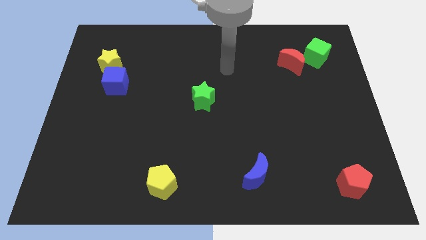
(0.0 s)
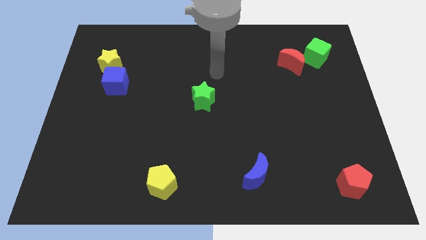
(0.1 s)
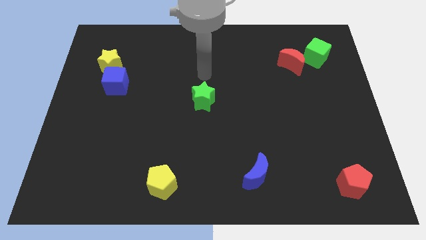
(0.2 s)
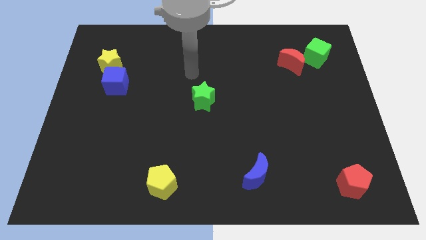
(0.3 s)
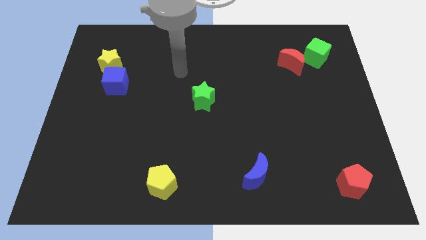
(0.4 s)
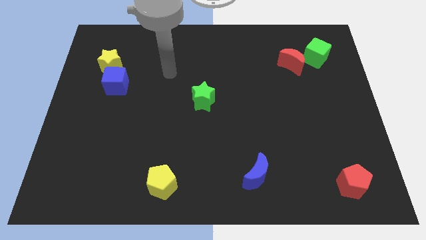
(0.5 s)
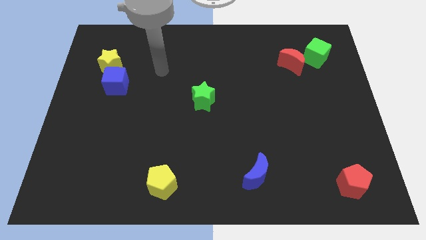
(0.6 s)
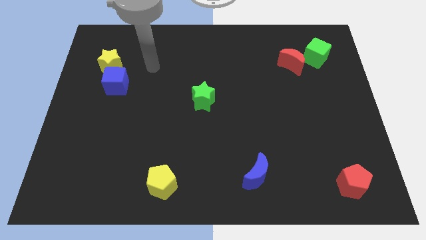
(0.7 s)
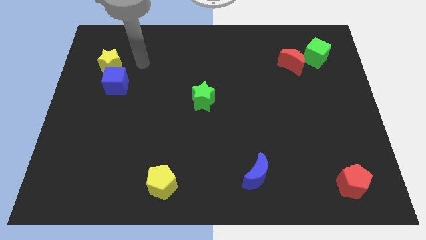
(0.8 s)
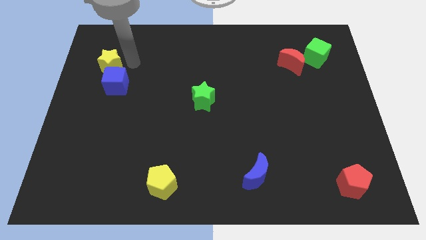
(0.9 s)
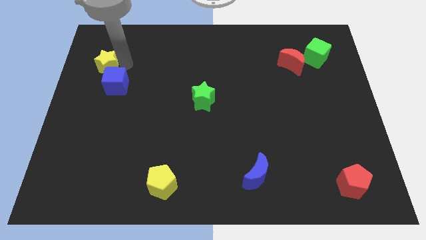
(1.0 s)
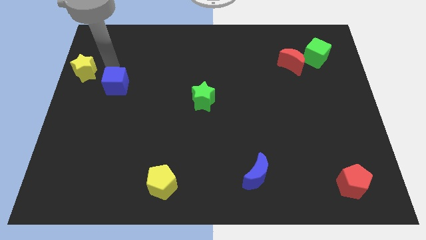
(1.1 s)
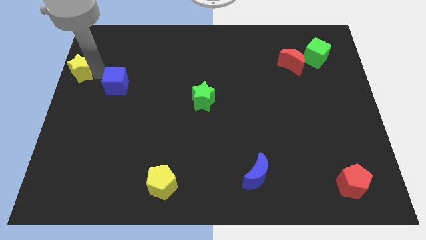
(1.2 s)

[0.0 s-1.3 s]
move the blue cube away from the yellow star

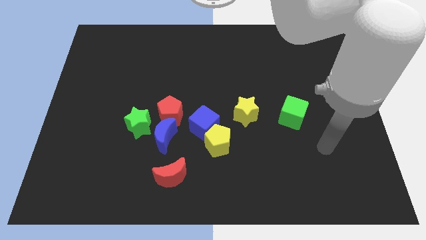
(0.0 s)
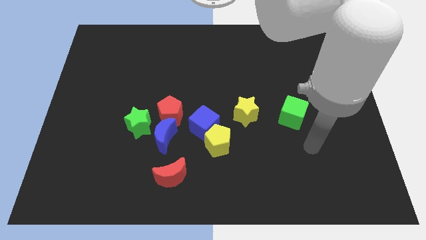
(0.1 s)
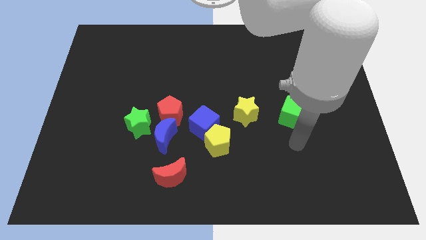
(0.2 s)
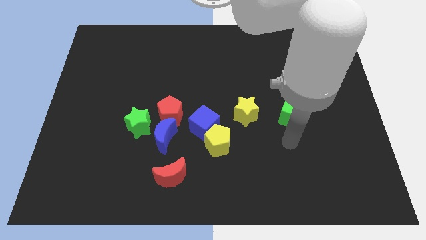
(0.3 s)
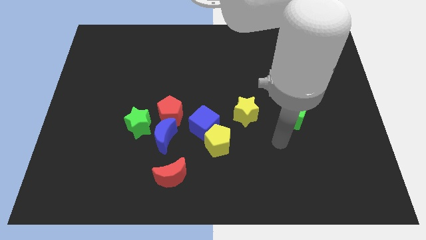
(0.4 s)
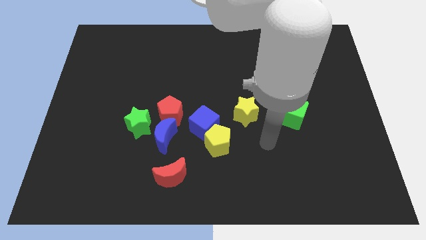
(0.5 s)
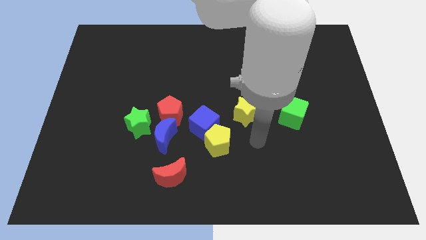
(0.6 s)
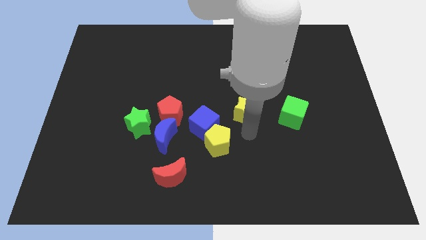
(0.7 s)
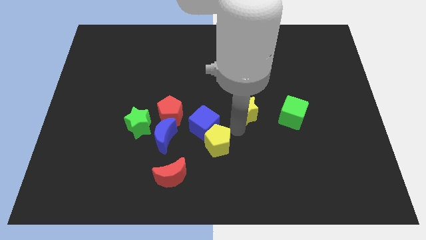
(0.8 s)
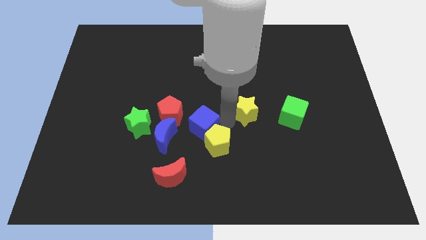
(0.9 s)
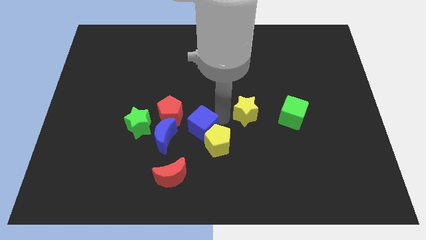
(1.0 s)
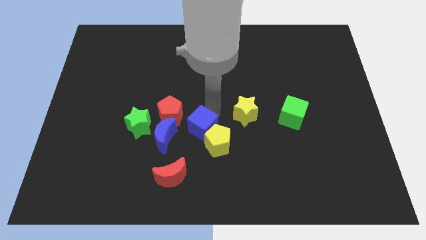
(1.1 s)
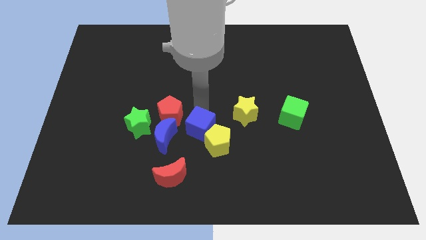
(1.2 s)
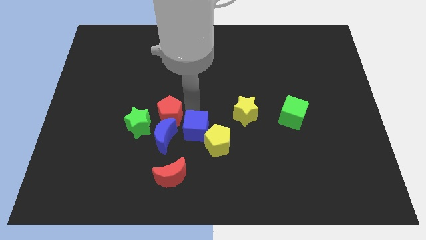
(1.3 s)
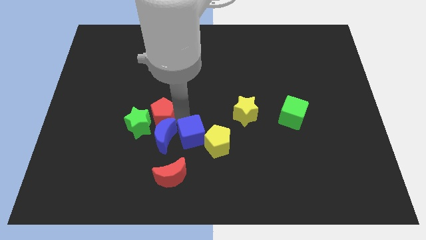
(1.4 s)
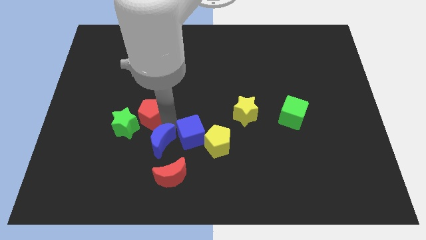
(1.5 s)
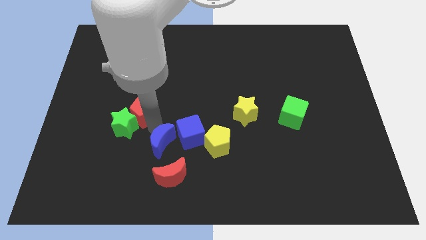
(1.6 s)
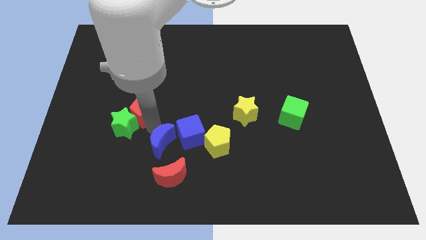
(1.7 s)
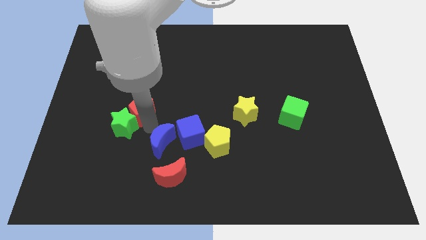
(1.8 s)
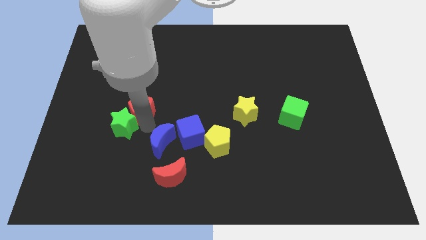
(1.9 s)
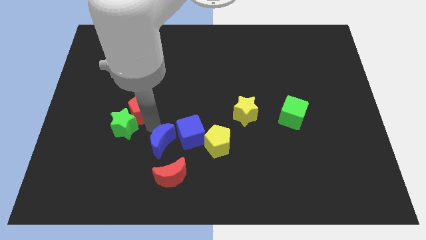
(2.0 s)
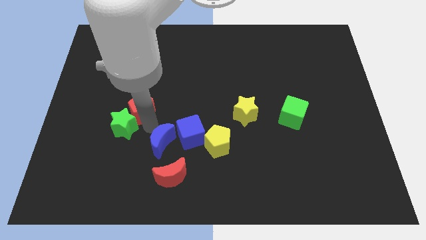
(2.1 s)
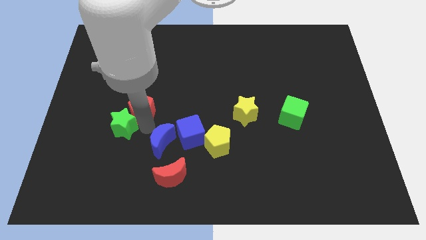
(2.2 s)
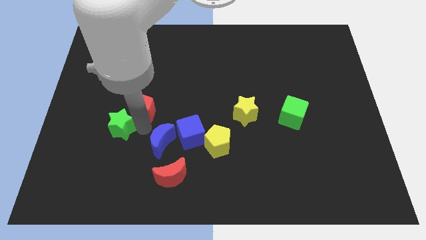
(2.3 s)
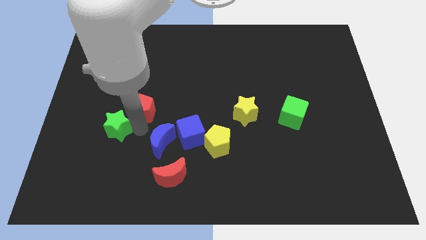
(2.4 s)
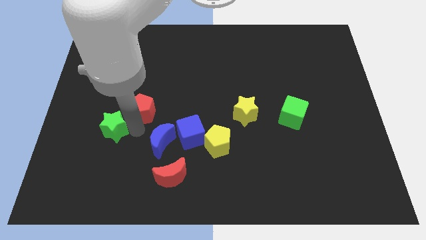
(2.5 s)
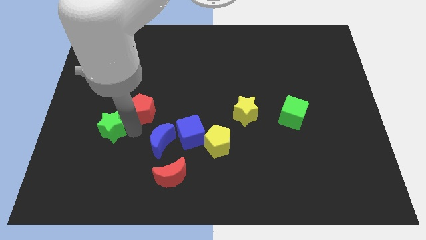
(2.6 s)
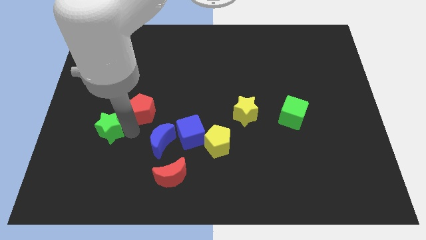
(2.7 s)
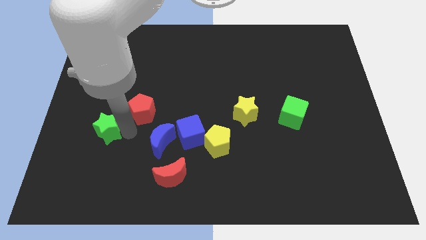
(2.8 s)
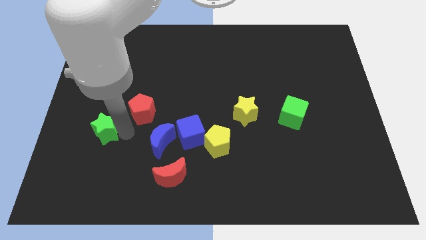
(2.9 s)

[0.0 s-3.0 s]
move the green star away from the blue moon and red pentagon

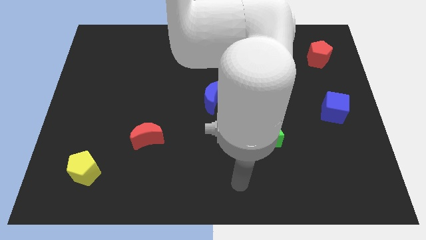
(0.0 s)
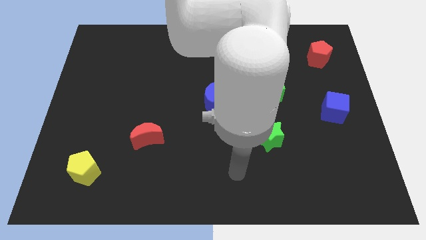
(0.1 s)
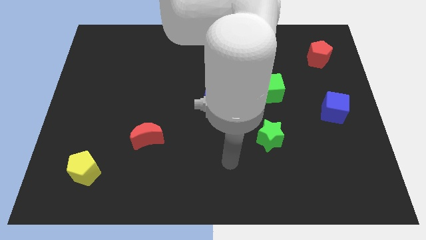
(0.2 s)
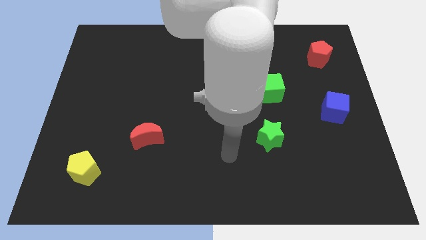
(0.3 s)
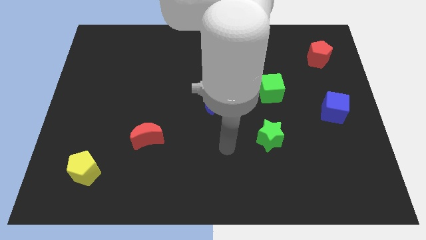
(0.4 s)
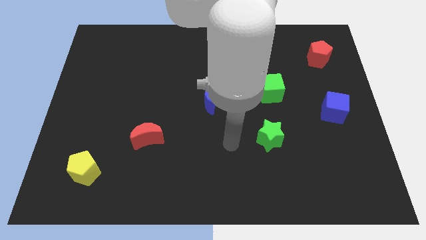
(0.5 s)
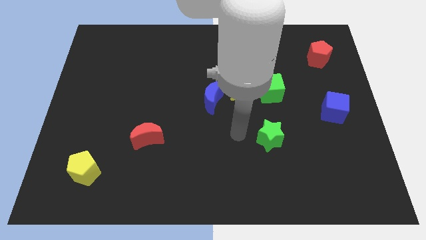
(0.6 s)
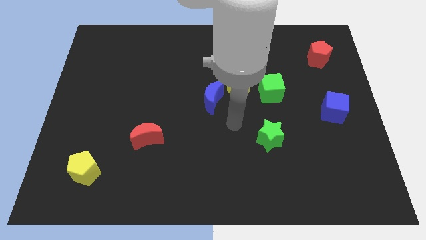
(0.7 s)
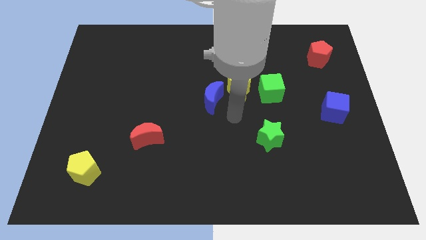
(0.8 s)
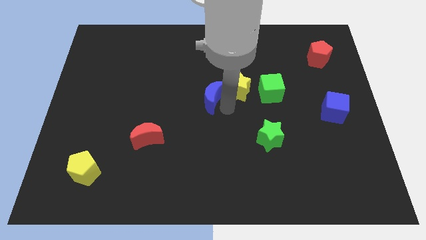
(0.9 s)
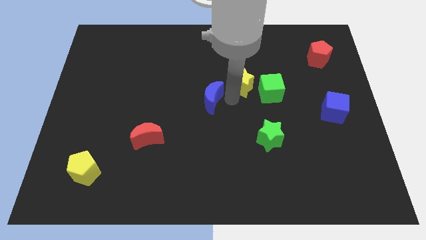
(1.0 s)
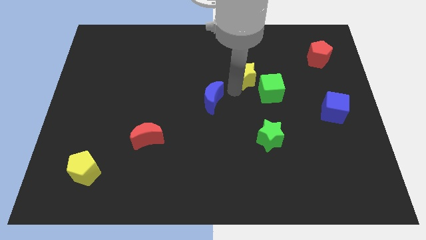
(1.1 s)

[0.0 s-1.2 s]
move the blue moon away from the yellow star

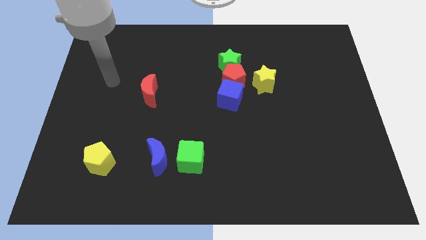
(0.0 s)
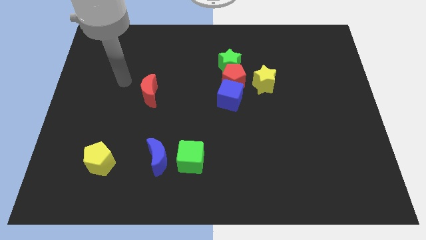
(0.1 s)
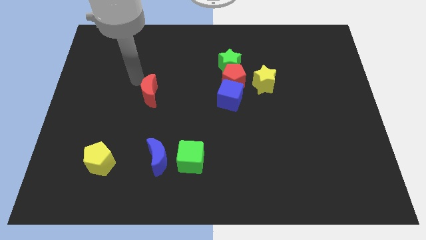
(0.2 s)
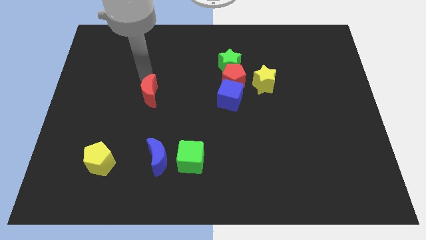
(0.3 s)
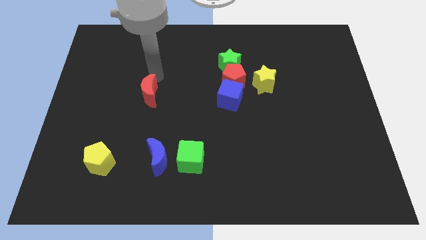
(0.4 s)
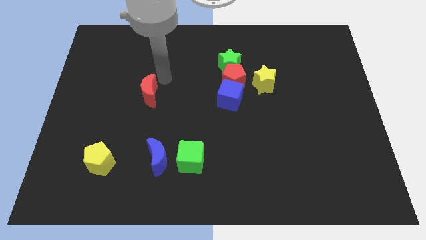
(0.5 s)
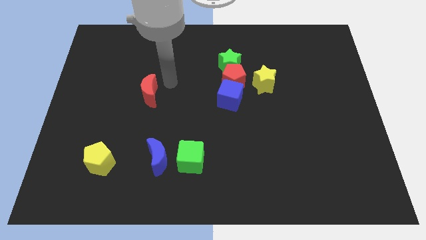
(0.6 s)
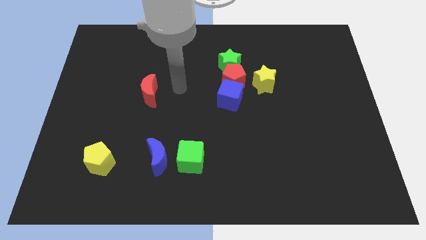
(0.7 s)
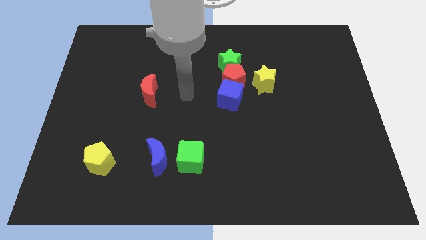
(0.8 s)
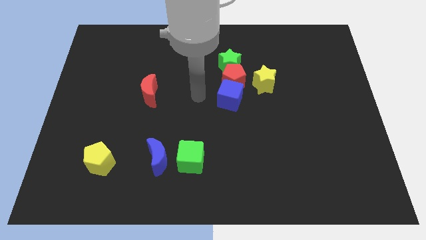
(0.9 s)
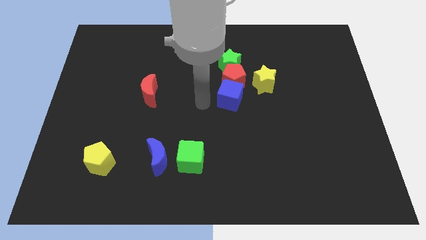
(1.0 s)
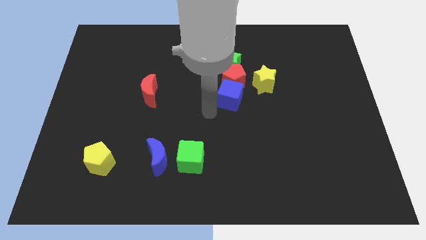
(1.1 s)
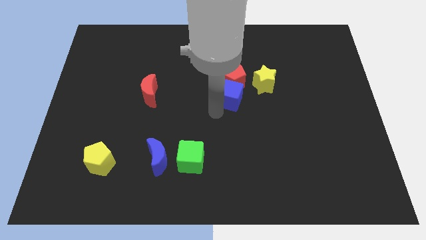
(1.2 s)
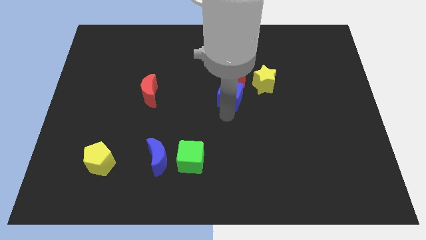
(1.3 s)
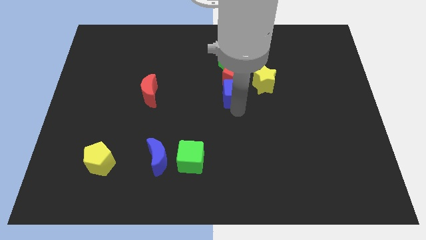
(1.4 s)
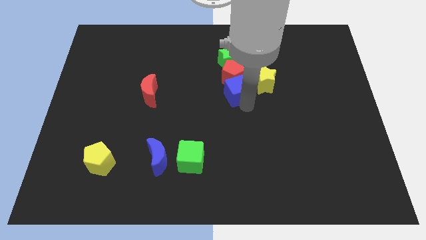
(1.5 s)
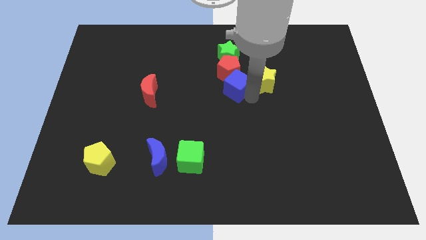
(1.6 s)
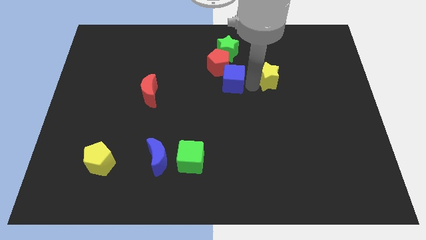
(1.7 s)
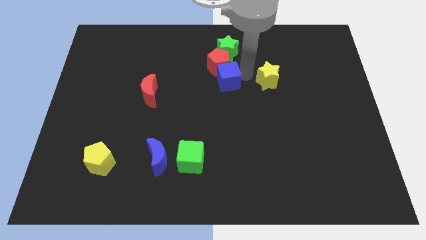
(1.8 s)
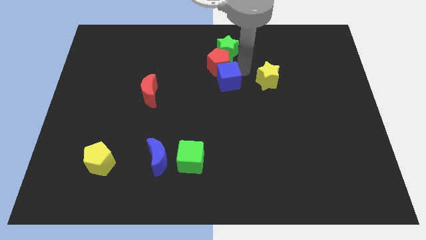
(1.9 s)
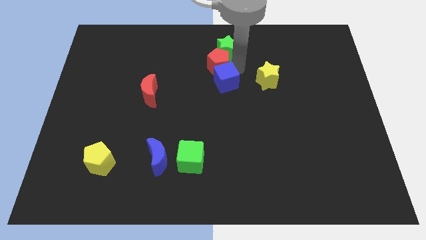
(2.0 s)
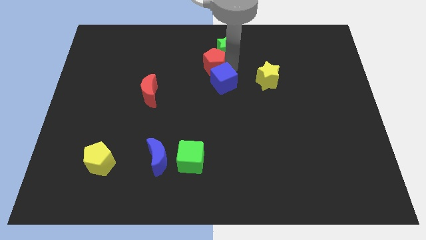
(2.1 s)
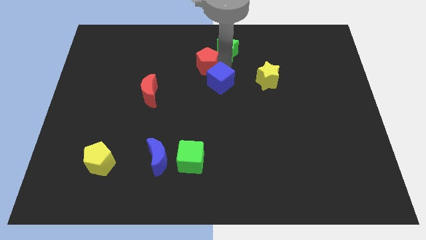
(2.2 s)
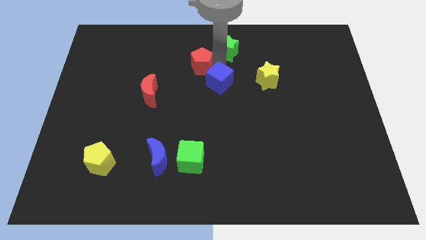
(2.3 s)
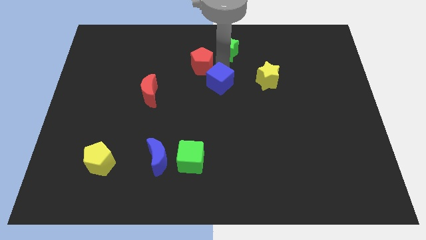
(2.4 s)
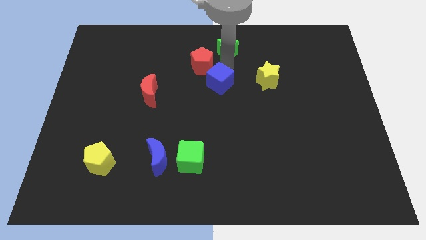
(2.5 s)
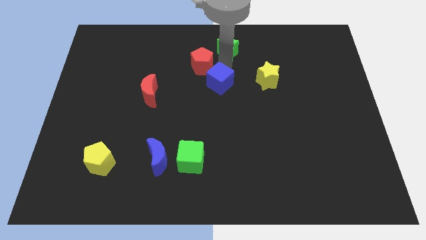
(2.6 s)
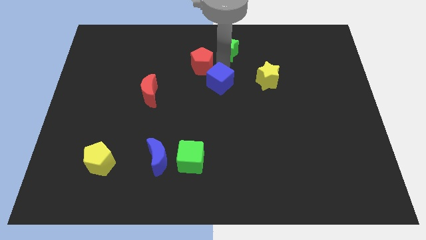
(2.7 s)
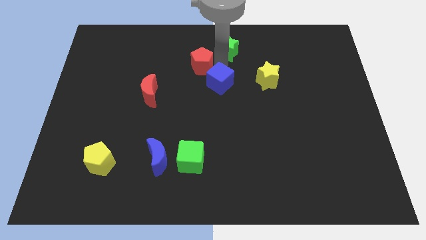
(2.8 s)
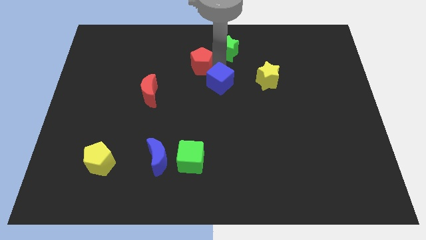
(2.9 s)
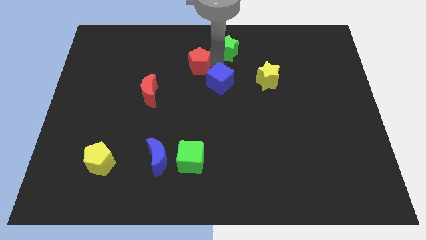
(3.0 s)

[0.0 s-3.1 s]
separate the red pentagon from the green star, blue cube, and yellow star

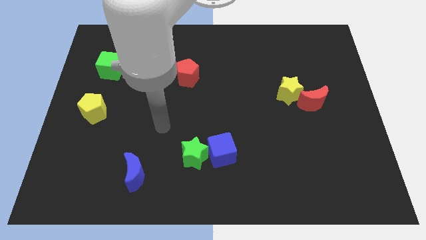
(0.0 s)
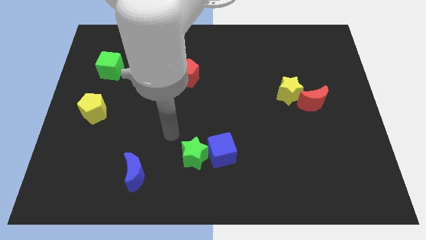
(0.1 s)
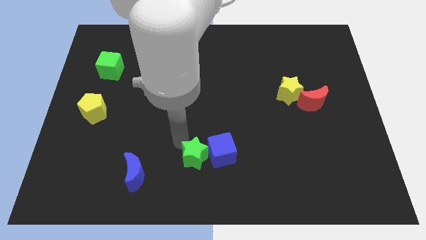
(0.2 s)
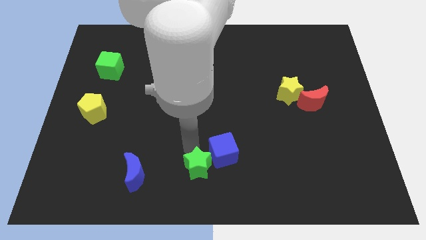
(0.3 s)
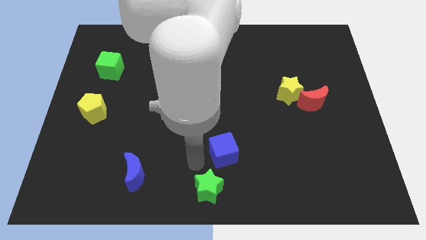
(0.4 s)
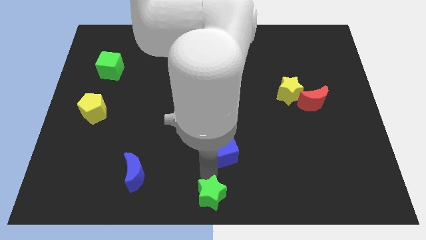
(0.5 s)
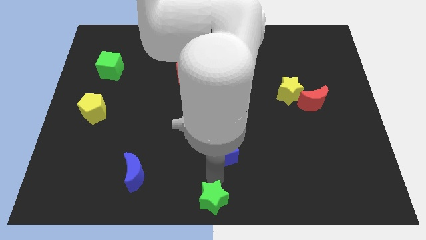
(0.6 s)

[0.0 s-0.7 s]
pull the blue cube apart from the green star
